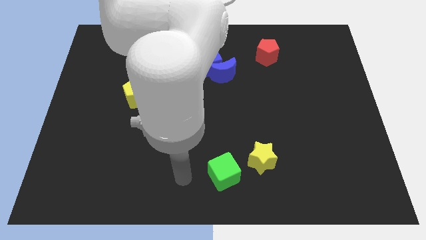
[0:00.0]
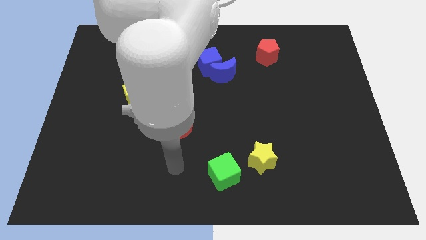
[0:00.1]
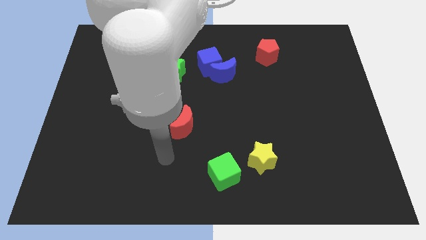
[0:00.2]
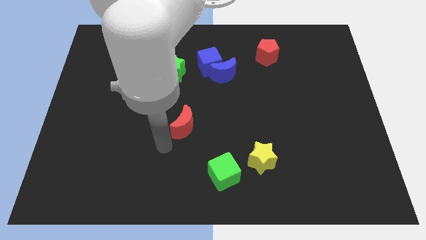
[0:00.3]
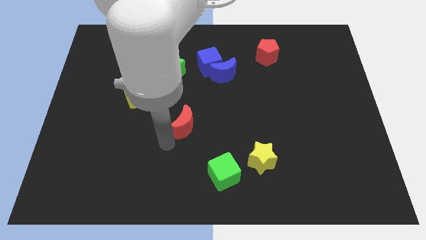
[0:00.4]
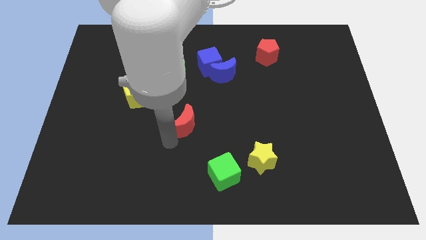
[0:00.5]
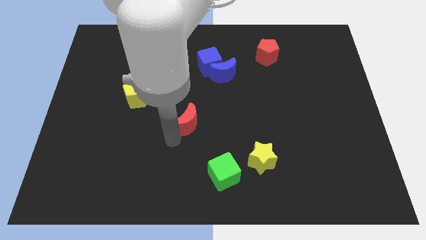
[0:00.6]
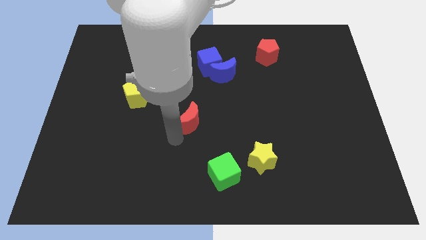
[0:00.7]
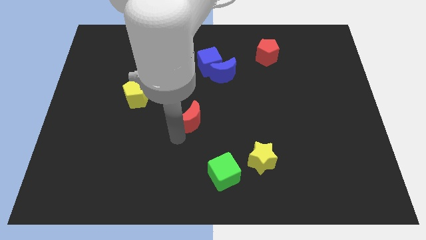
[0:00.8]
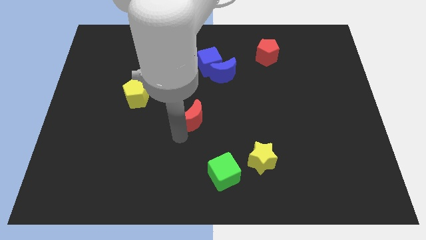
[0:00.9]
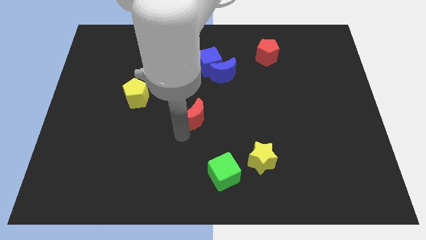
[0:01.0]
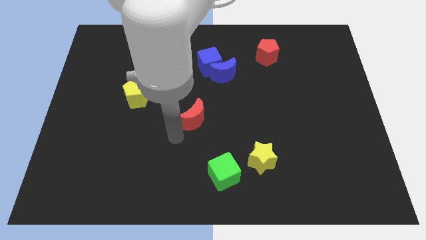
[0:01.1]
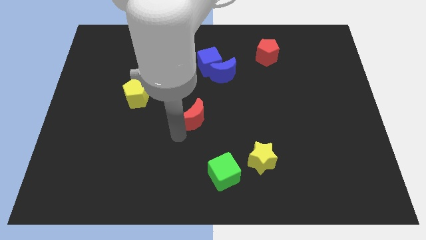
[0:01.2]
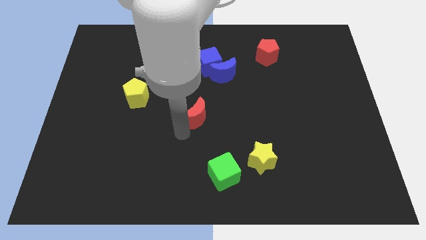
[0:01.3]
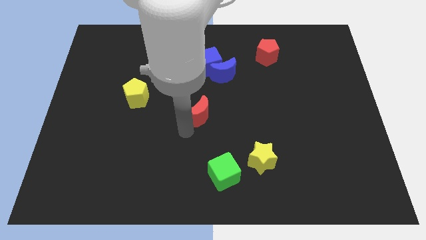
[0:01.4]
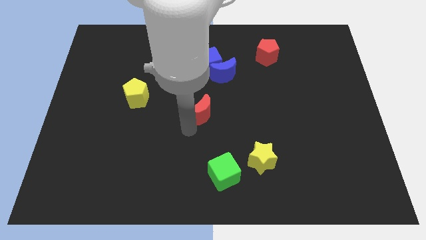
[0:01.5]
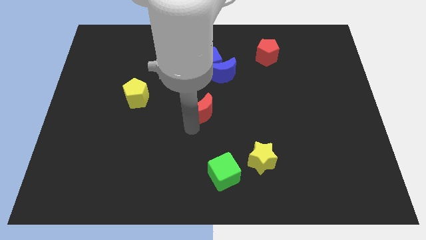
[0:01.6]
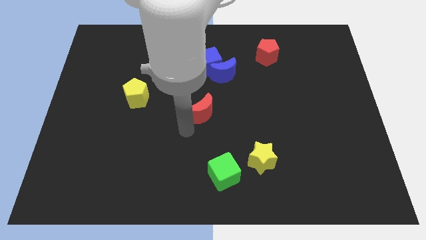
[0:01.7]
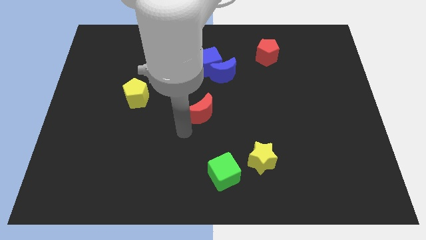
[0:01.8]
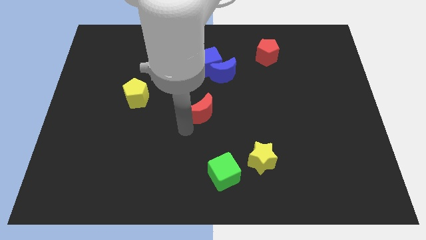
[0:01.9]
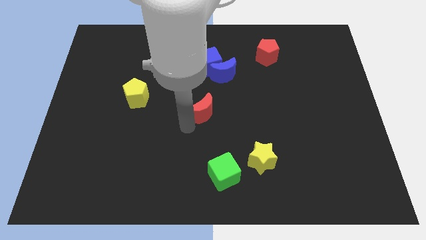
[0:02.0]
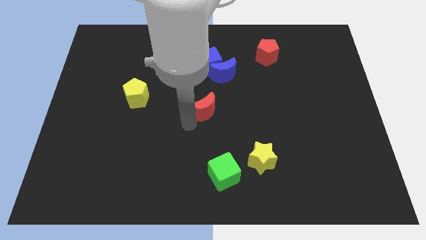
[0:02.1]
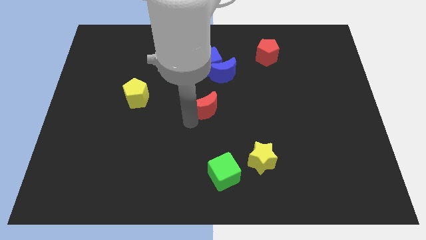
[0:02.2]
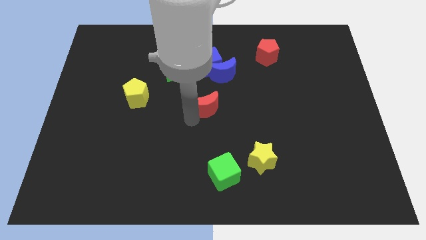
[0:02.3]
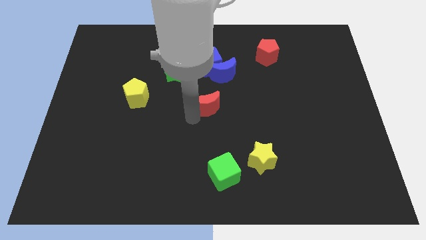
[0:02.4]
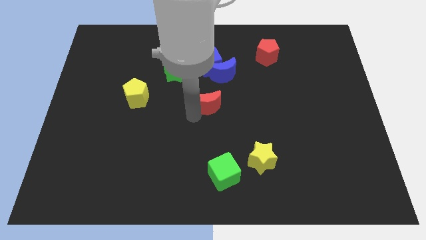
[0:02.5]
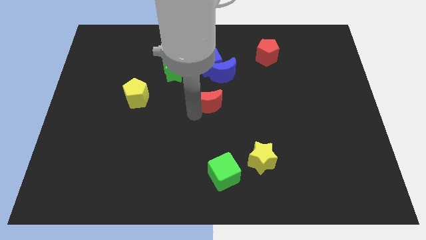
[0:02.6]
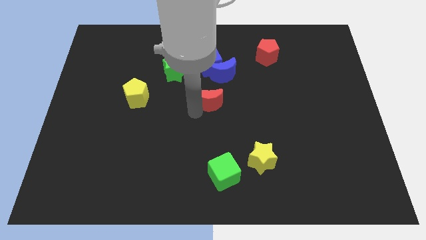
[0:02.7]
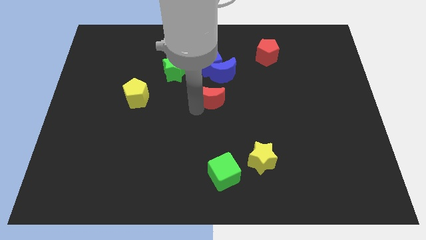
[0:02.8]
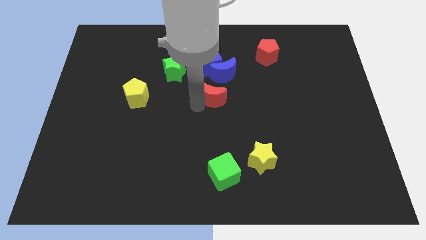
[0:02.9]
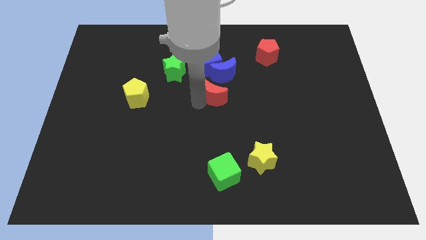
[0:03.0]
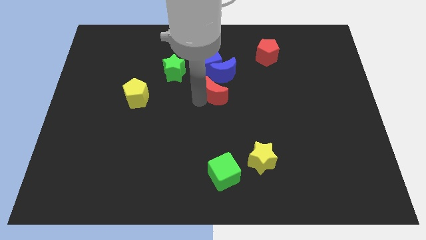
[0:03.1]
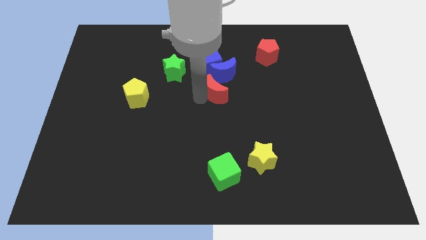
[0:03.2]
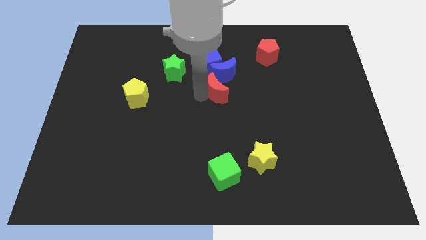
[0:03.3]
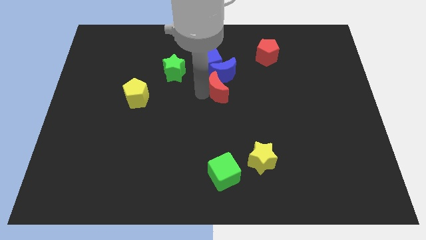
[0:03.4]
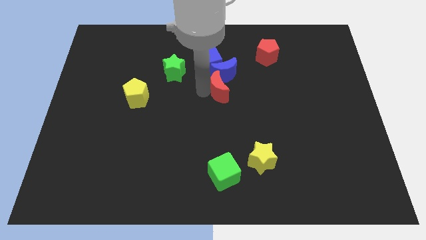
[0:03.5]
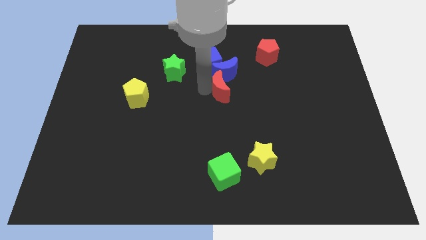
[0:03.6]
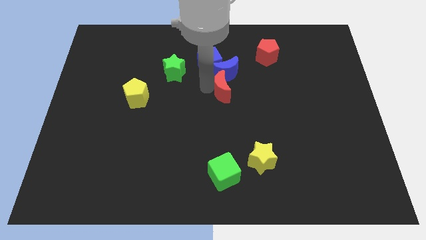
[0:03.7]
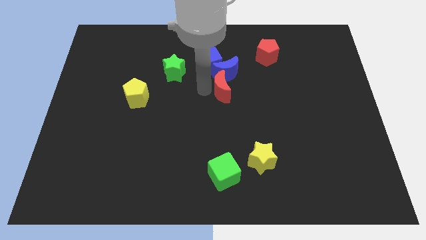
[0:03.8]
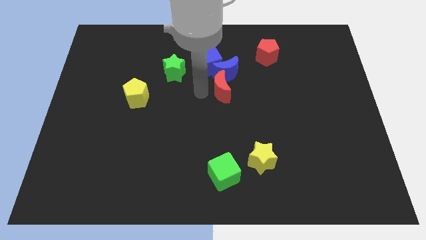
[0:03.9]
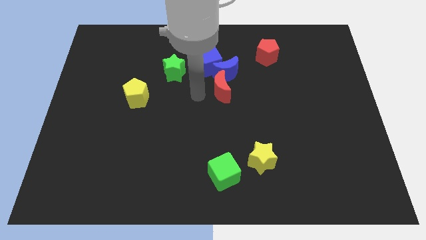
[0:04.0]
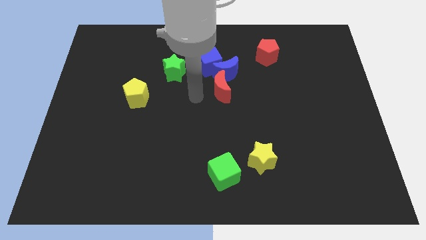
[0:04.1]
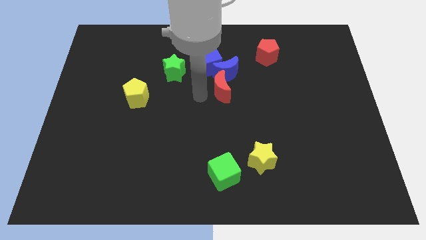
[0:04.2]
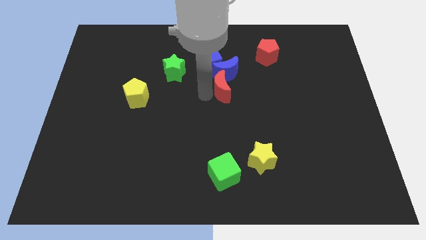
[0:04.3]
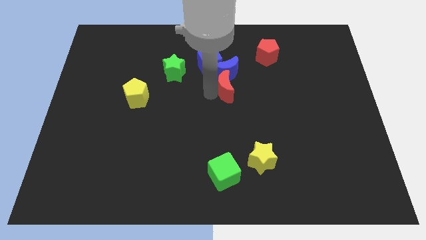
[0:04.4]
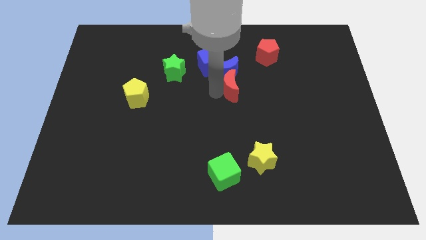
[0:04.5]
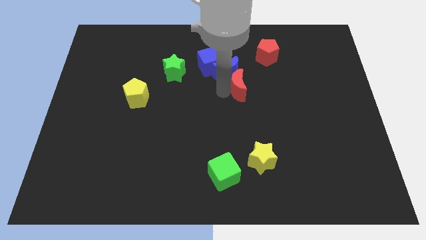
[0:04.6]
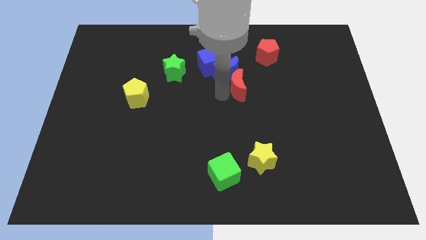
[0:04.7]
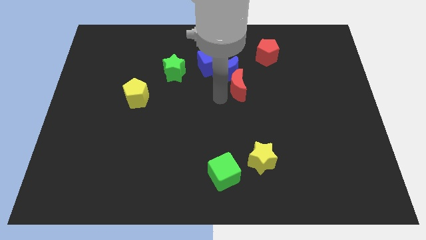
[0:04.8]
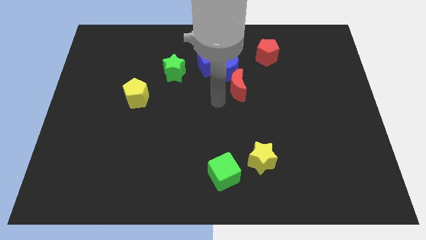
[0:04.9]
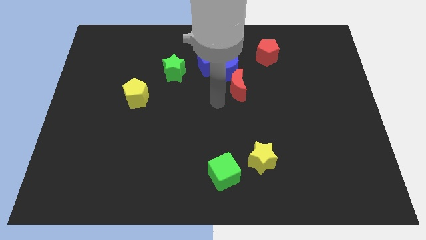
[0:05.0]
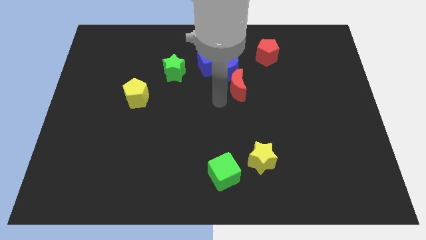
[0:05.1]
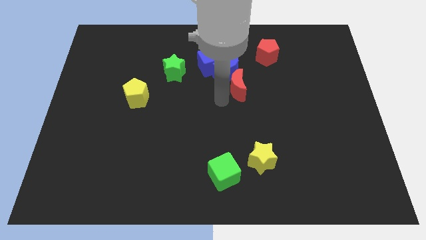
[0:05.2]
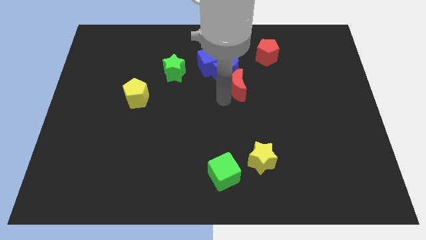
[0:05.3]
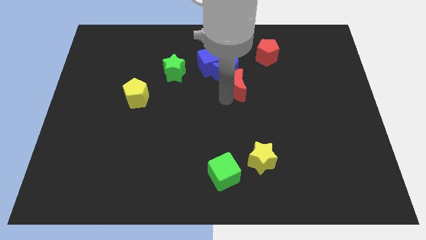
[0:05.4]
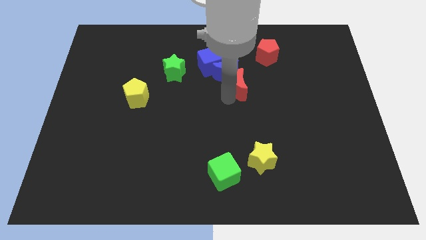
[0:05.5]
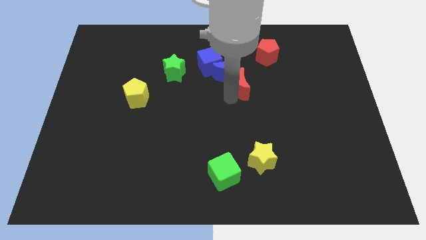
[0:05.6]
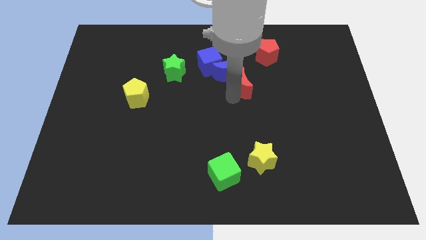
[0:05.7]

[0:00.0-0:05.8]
push the red moon just right of the blue moon
